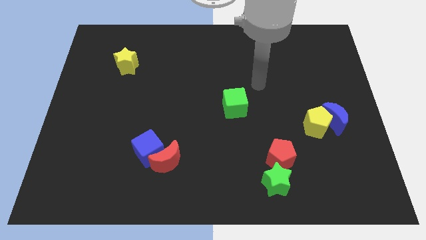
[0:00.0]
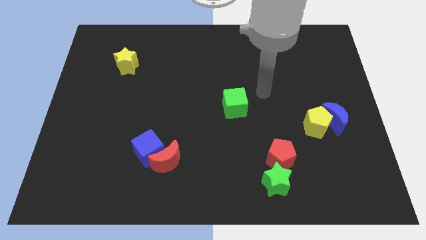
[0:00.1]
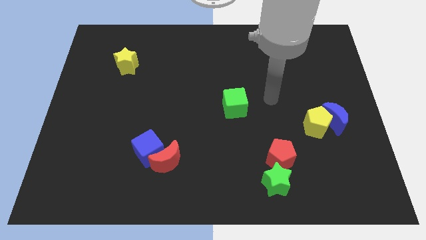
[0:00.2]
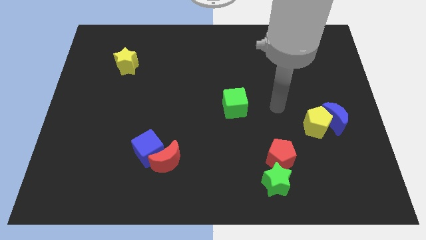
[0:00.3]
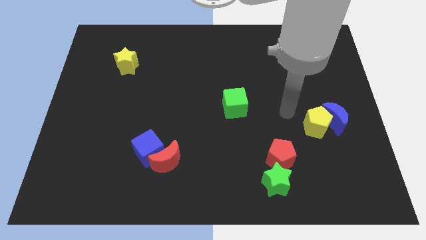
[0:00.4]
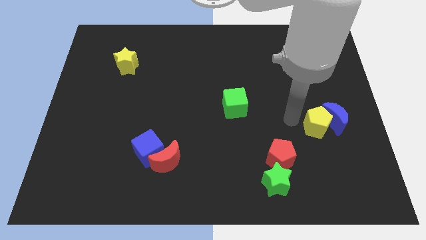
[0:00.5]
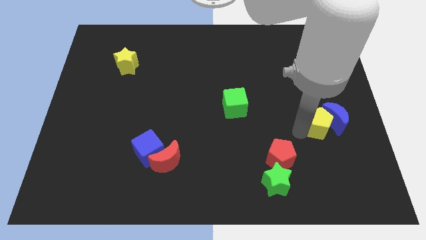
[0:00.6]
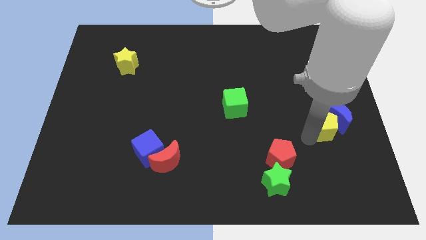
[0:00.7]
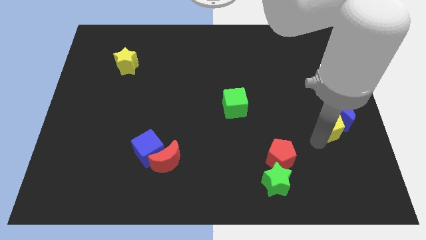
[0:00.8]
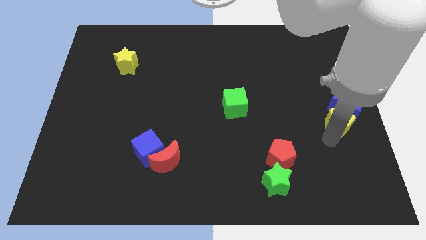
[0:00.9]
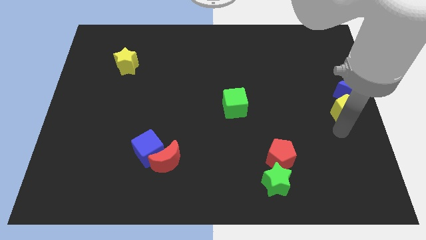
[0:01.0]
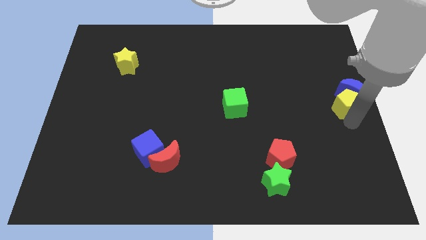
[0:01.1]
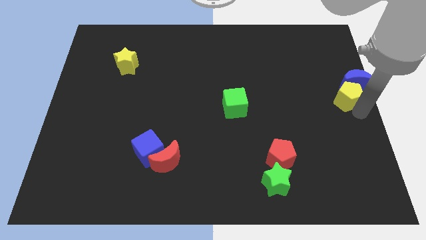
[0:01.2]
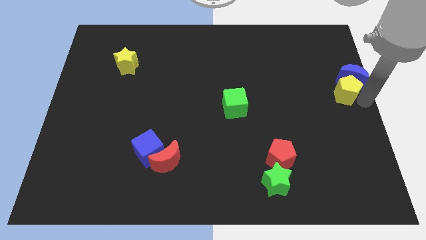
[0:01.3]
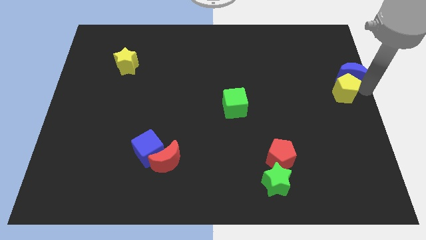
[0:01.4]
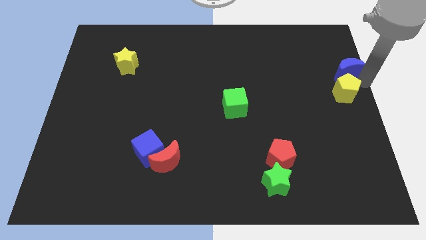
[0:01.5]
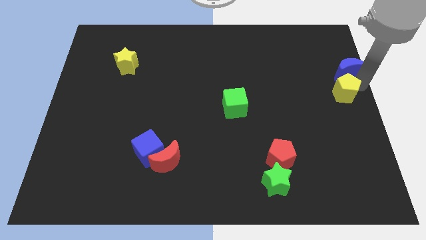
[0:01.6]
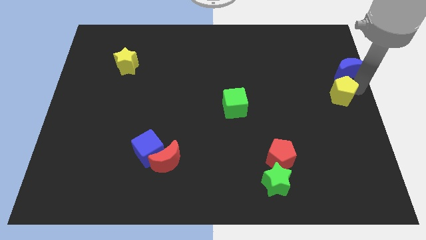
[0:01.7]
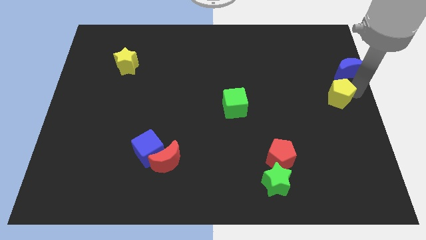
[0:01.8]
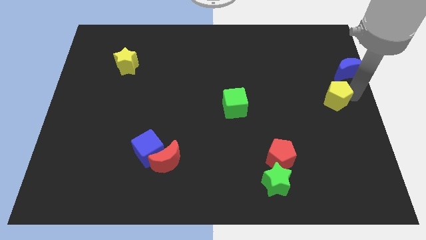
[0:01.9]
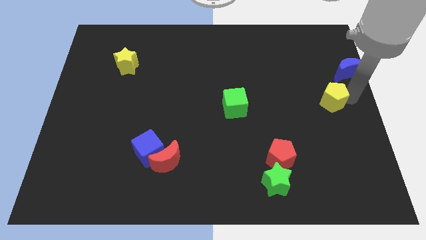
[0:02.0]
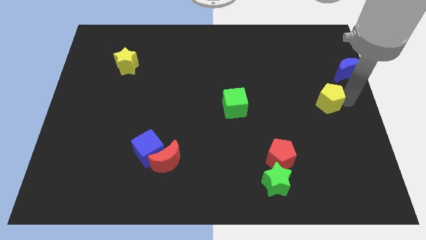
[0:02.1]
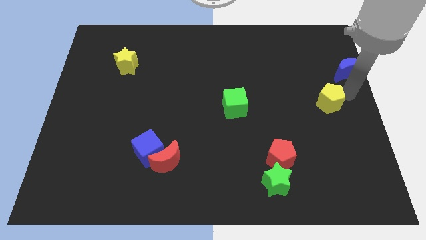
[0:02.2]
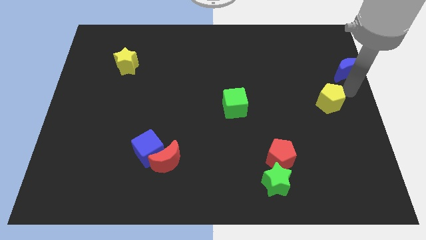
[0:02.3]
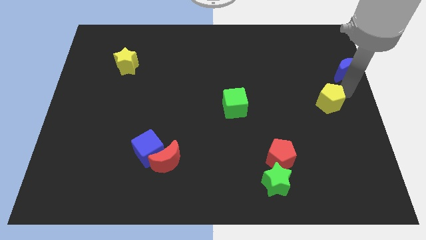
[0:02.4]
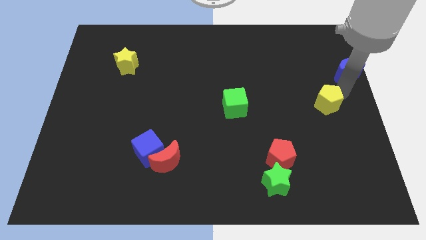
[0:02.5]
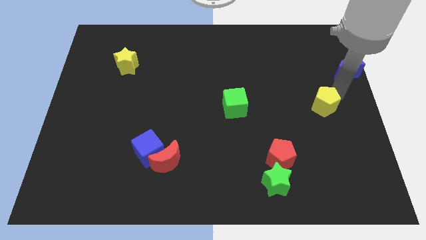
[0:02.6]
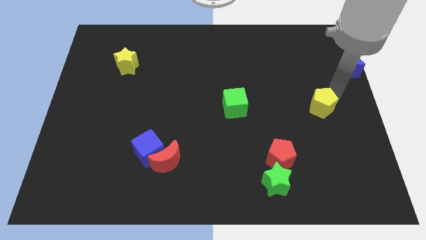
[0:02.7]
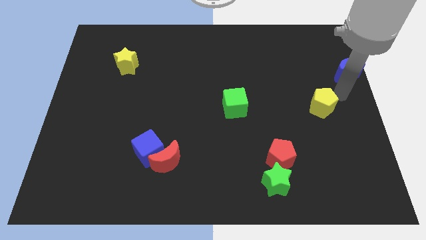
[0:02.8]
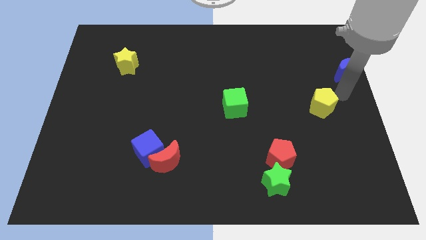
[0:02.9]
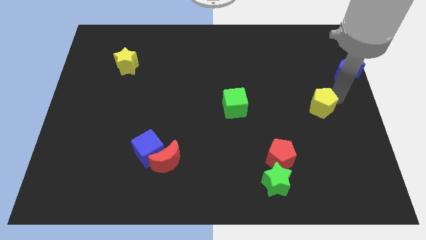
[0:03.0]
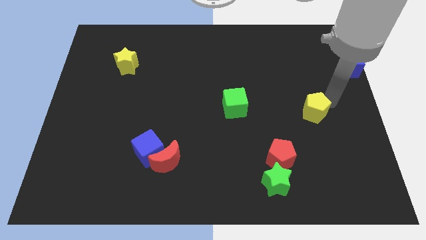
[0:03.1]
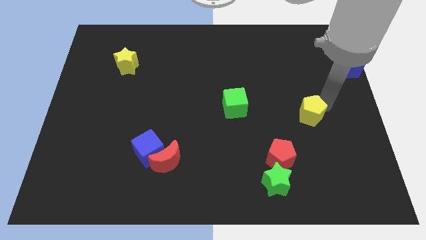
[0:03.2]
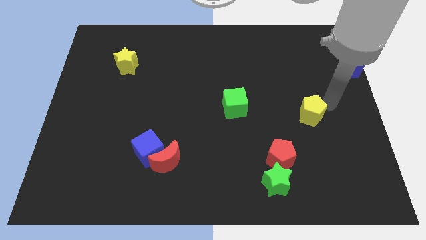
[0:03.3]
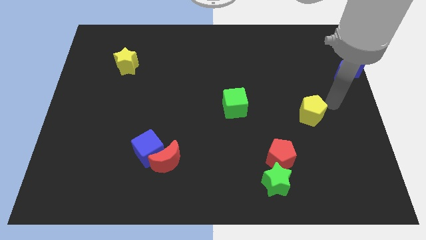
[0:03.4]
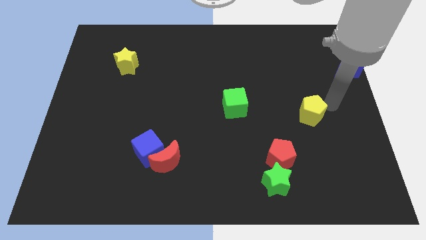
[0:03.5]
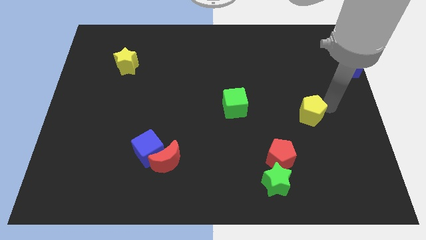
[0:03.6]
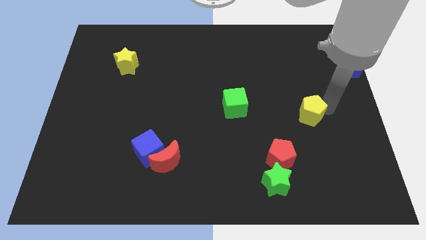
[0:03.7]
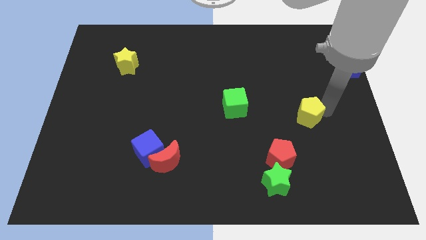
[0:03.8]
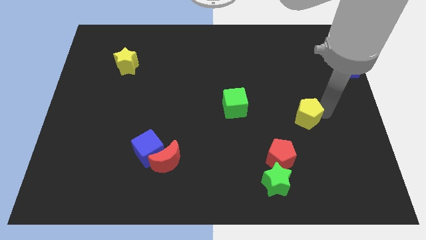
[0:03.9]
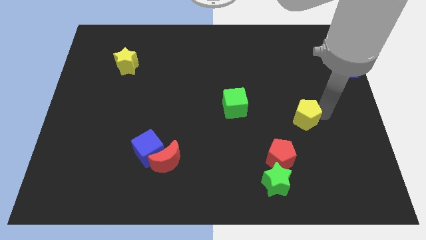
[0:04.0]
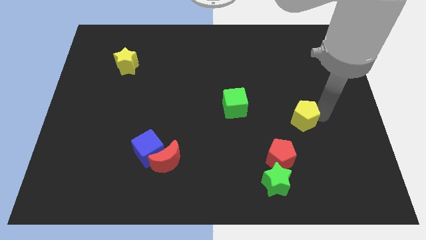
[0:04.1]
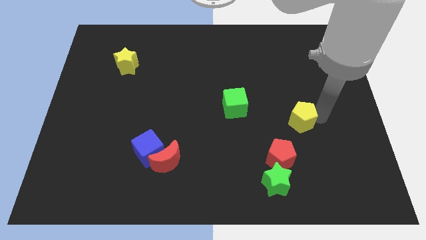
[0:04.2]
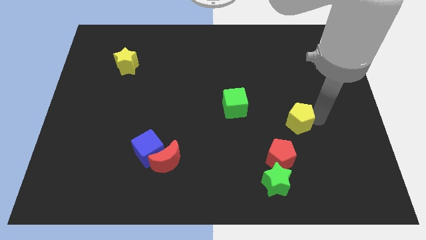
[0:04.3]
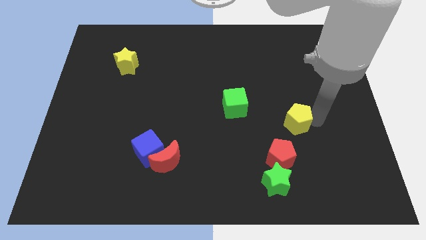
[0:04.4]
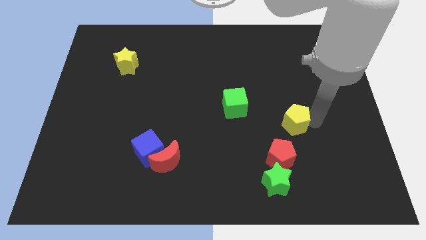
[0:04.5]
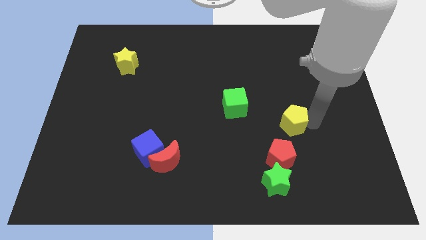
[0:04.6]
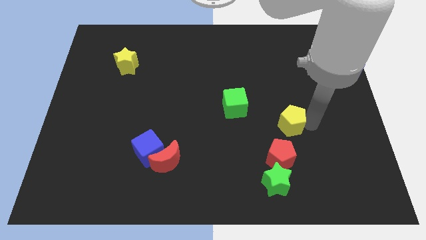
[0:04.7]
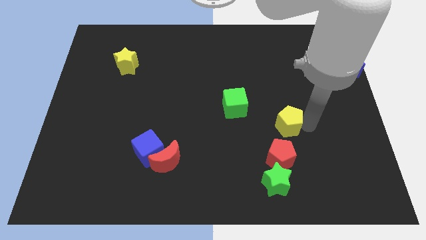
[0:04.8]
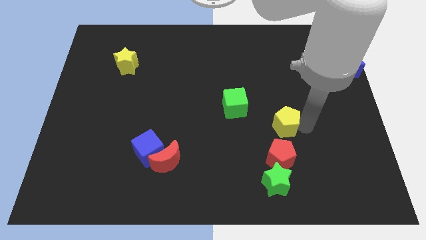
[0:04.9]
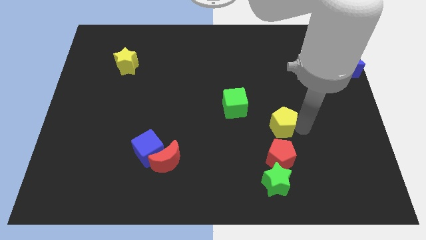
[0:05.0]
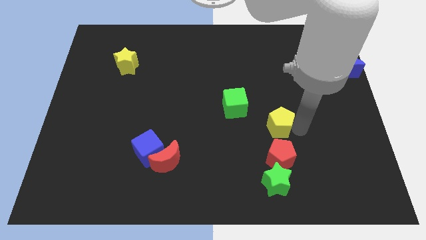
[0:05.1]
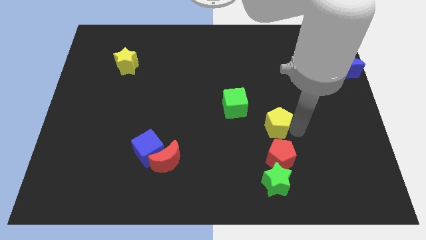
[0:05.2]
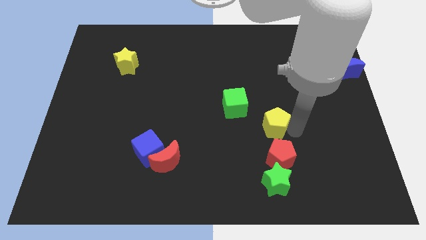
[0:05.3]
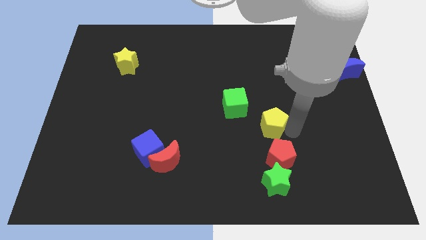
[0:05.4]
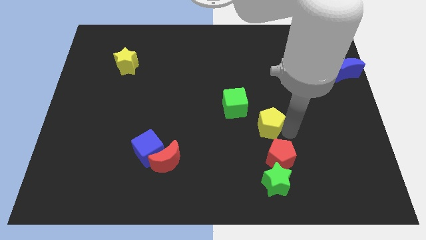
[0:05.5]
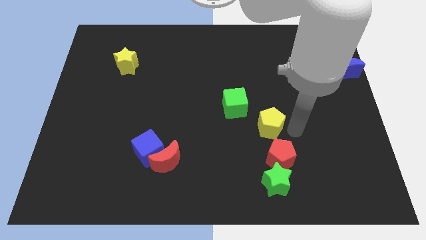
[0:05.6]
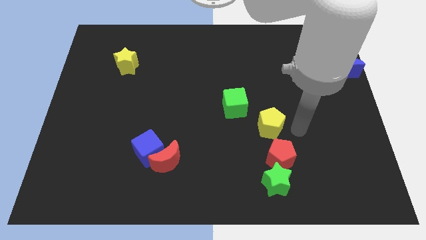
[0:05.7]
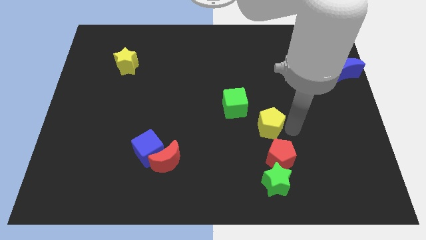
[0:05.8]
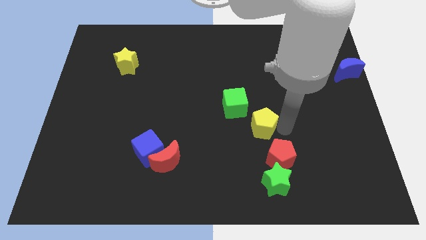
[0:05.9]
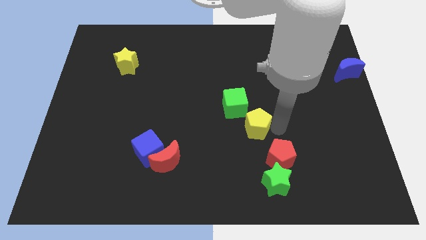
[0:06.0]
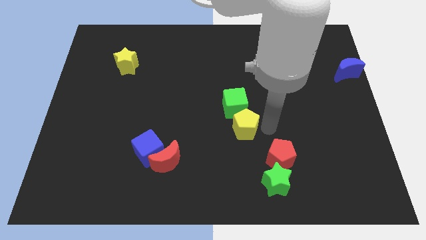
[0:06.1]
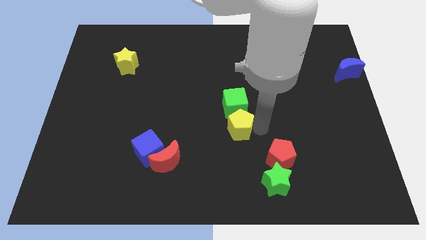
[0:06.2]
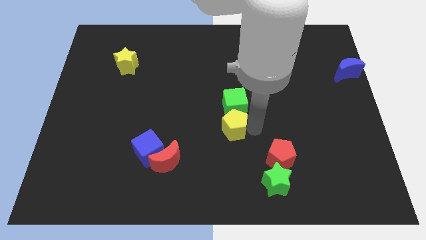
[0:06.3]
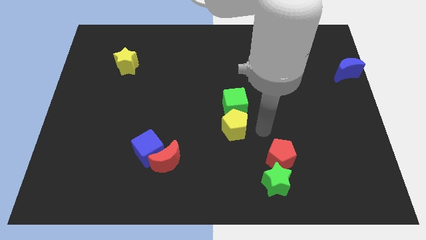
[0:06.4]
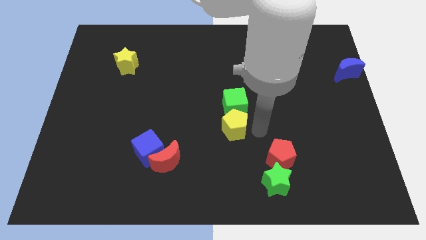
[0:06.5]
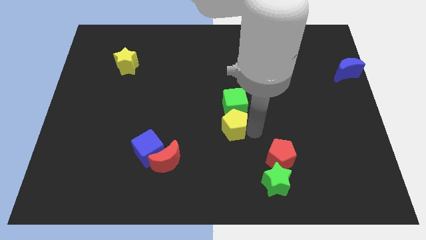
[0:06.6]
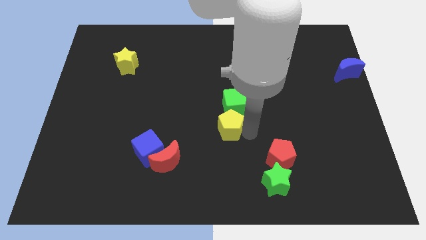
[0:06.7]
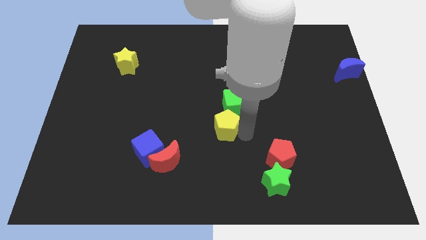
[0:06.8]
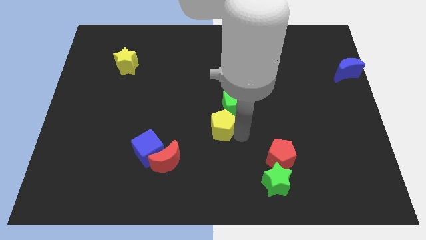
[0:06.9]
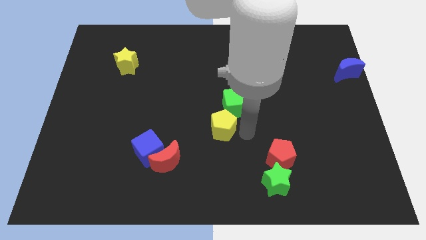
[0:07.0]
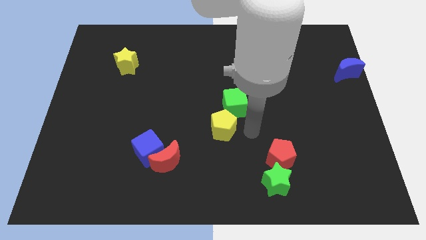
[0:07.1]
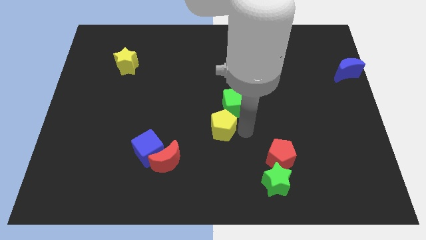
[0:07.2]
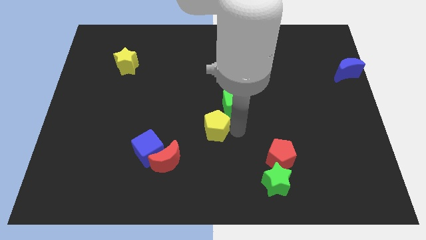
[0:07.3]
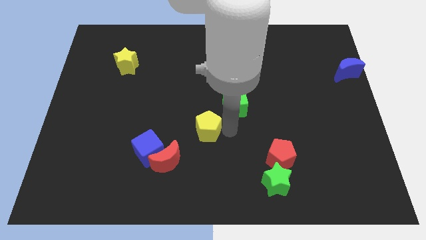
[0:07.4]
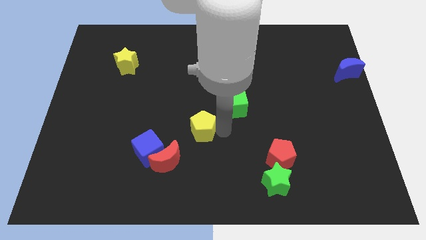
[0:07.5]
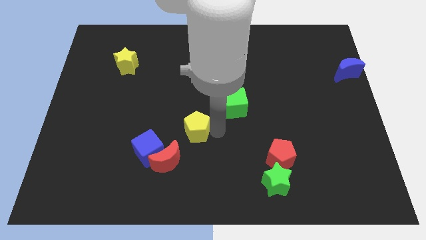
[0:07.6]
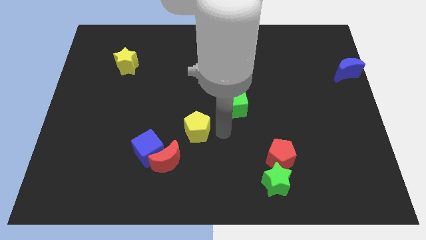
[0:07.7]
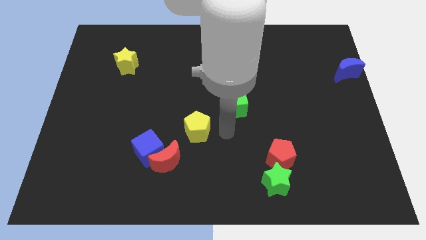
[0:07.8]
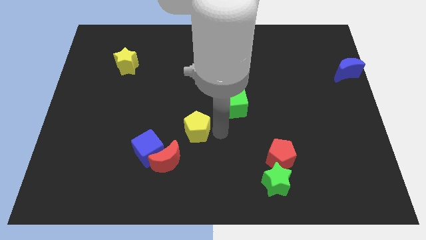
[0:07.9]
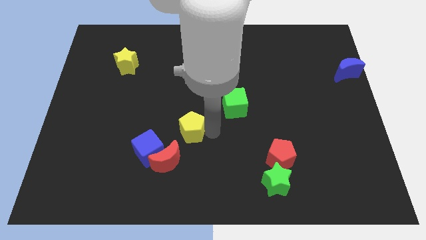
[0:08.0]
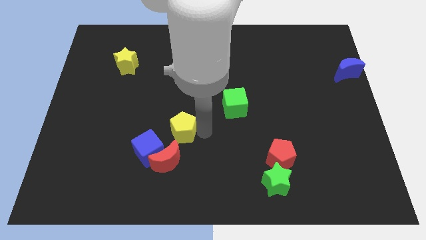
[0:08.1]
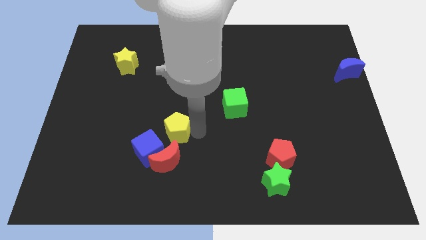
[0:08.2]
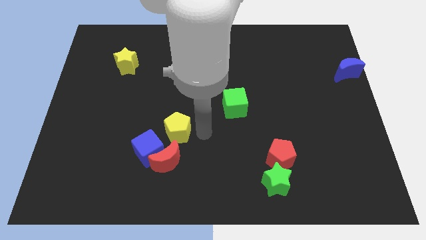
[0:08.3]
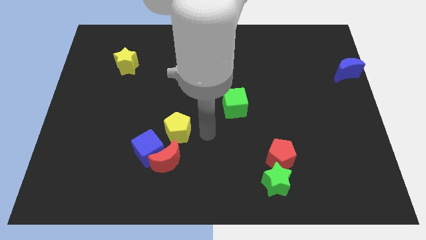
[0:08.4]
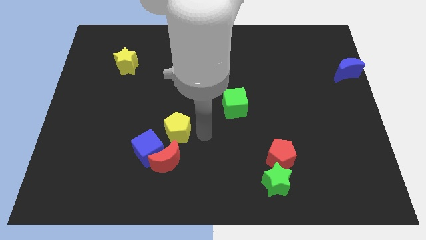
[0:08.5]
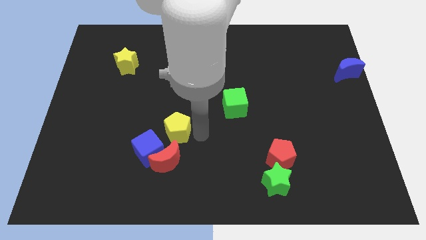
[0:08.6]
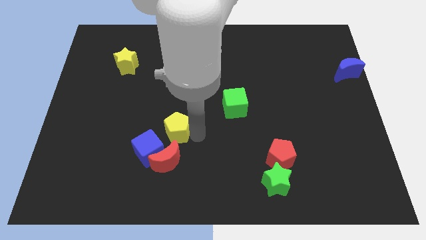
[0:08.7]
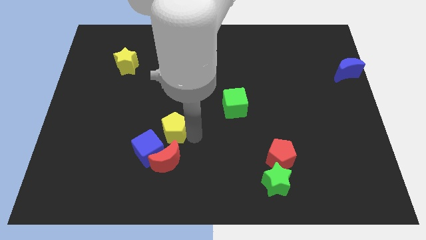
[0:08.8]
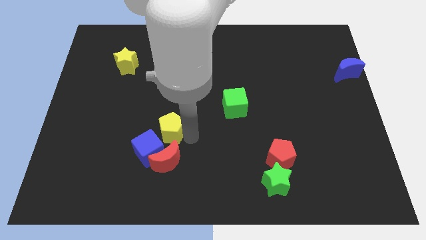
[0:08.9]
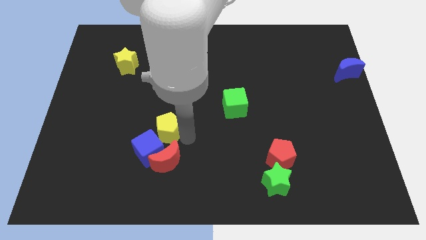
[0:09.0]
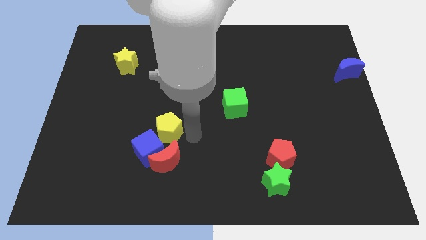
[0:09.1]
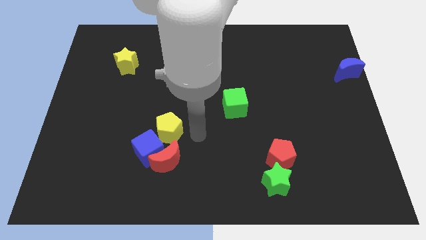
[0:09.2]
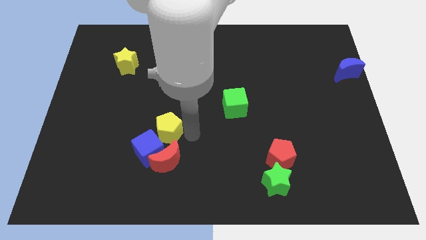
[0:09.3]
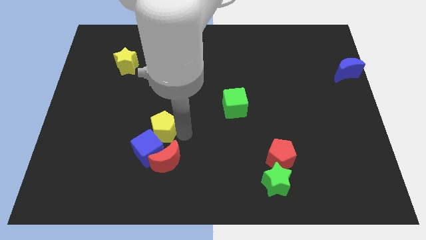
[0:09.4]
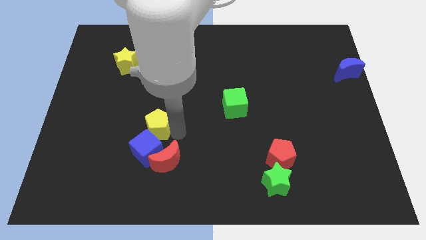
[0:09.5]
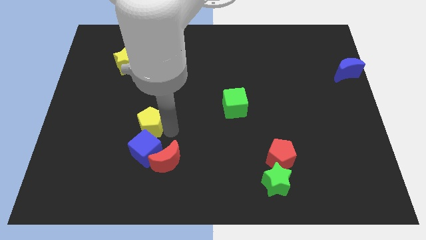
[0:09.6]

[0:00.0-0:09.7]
slide the yellow pentagon to the top left side of the blue cube
